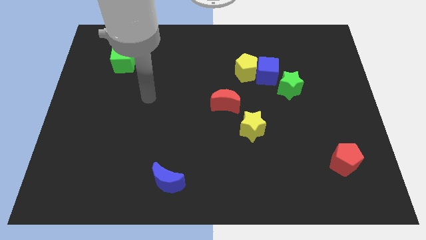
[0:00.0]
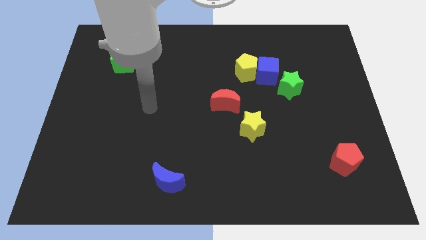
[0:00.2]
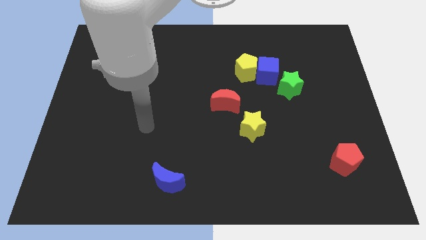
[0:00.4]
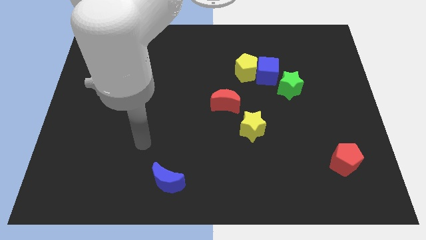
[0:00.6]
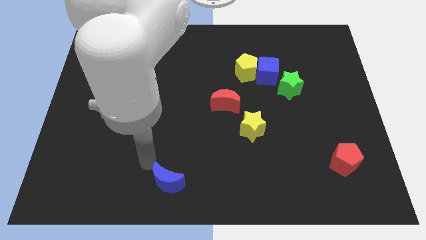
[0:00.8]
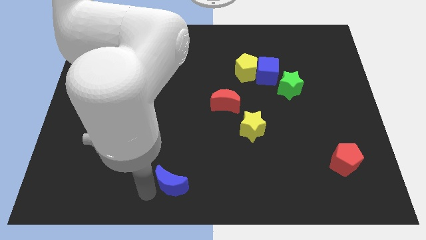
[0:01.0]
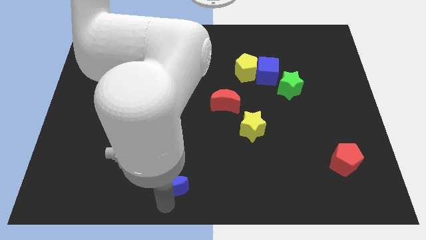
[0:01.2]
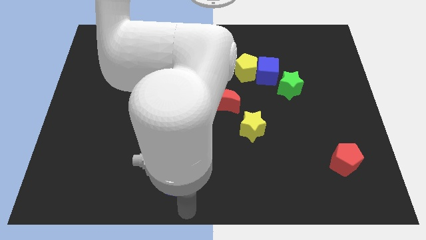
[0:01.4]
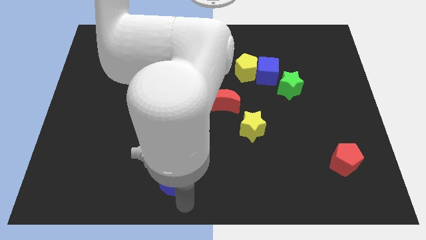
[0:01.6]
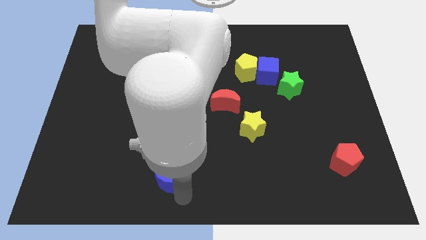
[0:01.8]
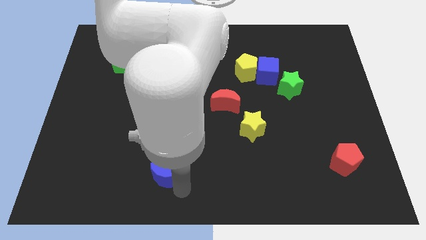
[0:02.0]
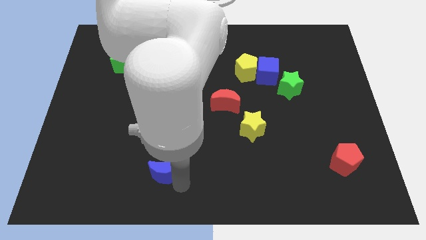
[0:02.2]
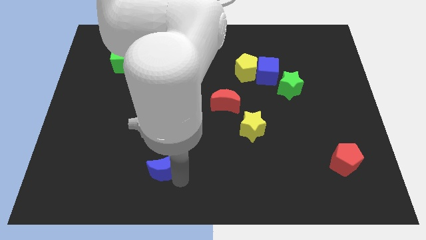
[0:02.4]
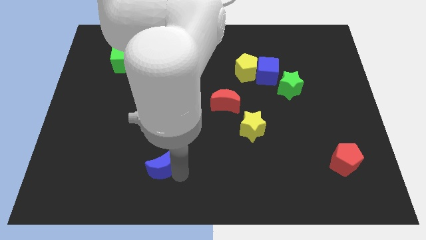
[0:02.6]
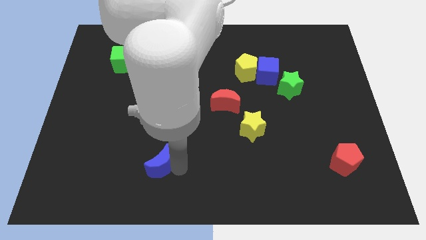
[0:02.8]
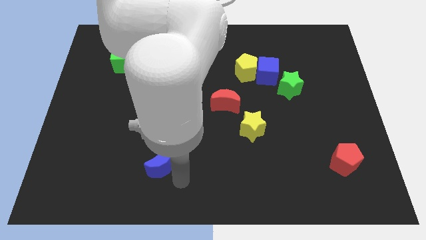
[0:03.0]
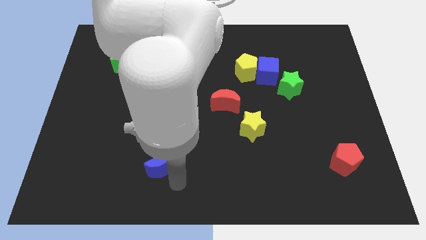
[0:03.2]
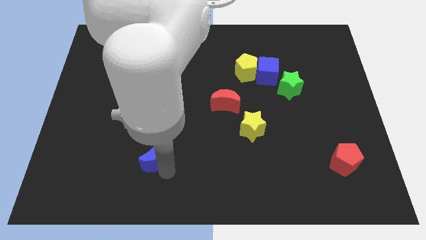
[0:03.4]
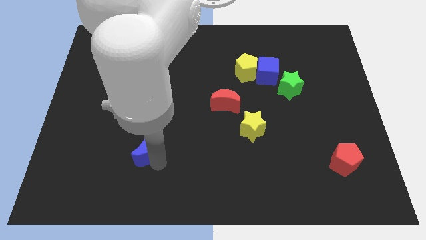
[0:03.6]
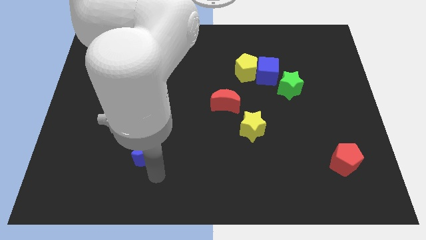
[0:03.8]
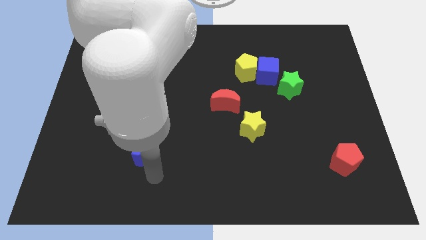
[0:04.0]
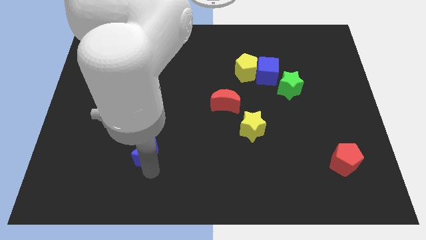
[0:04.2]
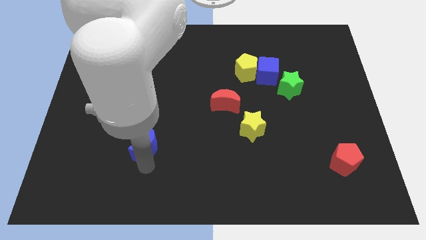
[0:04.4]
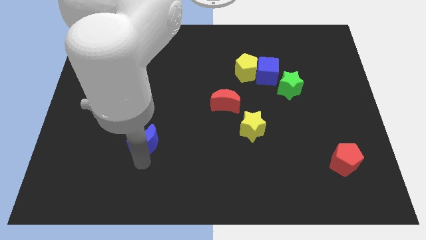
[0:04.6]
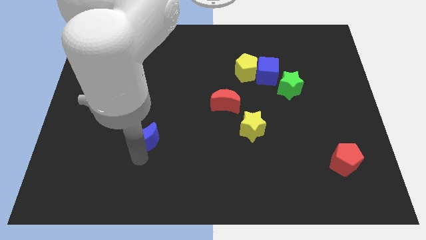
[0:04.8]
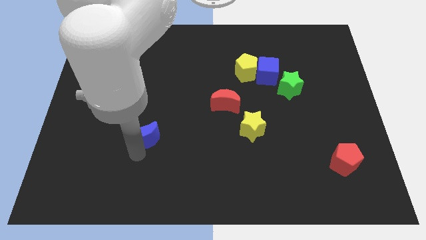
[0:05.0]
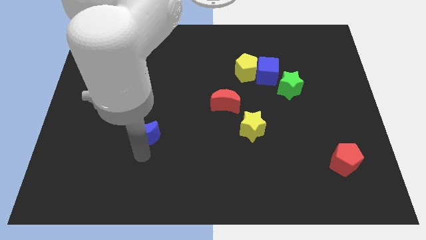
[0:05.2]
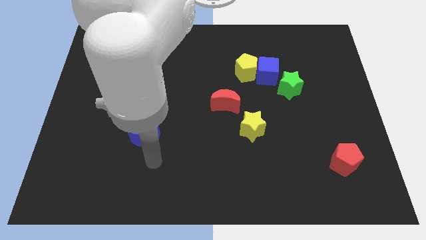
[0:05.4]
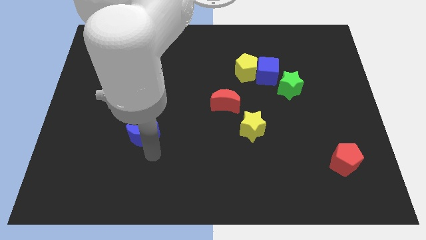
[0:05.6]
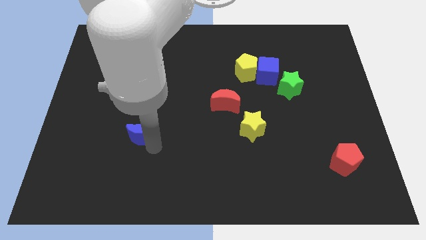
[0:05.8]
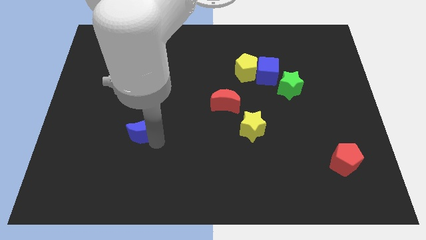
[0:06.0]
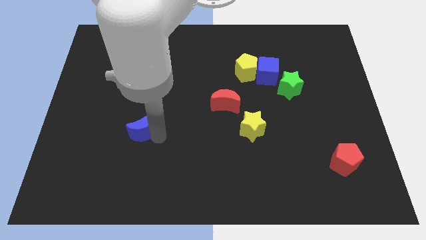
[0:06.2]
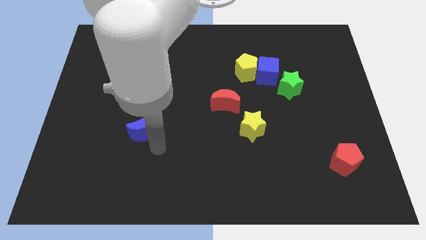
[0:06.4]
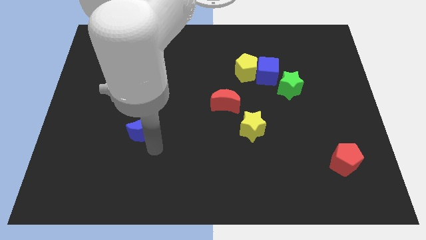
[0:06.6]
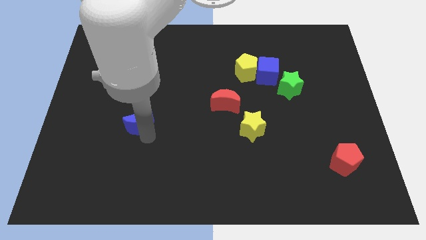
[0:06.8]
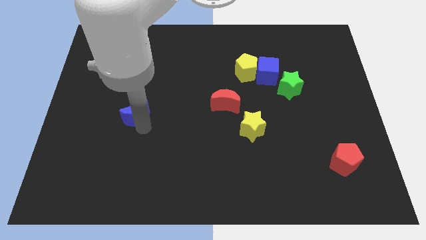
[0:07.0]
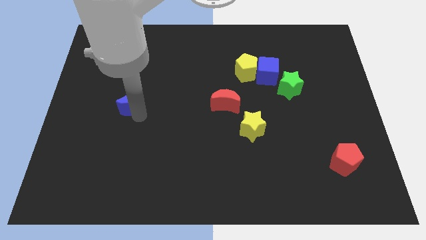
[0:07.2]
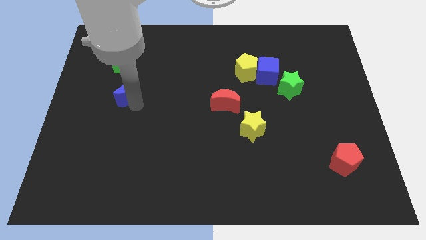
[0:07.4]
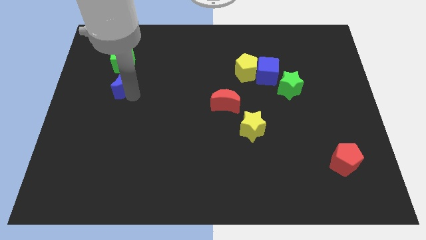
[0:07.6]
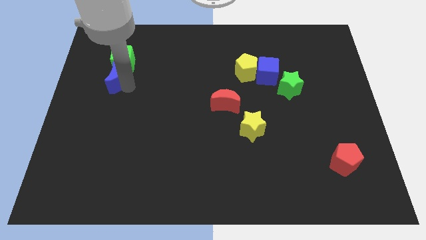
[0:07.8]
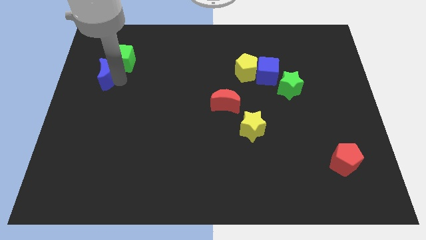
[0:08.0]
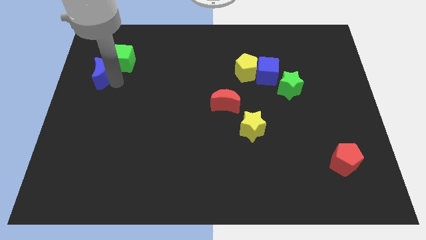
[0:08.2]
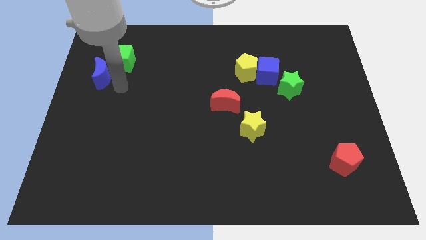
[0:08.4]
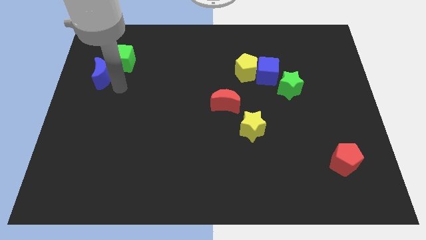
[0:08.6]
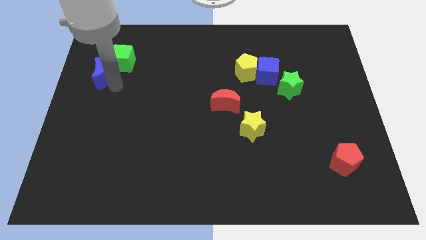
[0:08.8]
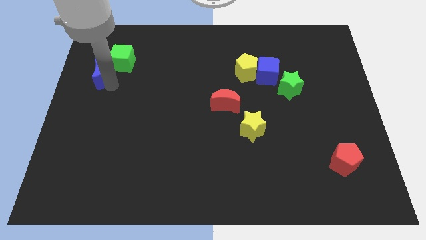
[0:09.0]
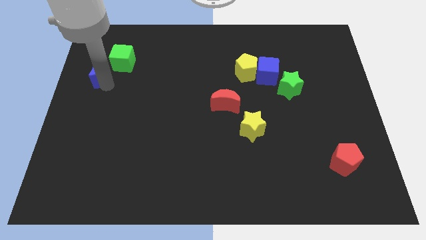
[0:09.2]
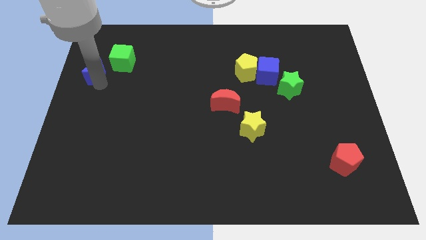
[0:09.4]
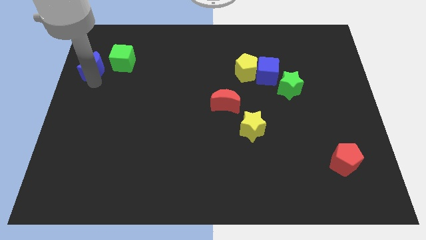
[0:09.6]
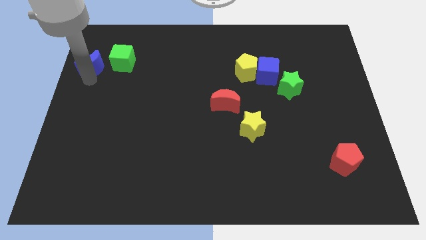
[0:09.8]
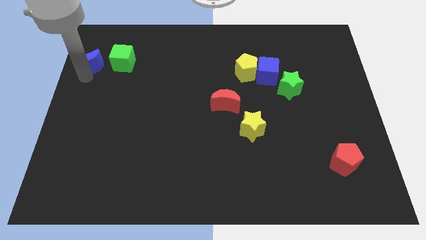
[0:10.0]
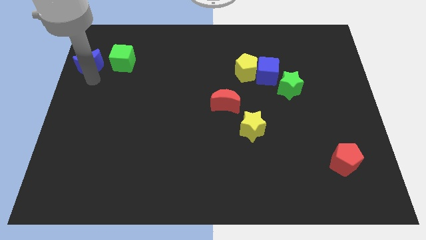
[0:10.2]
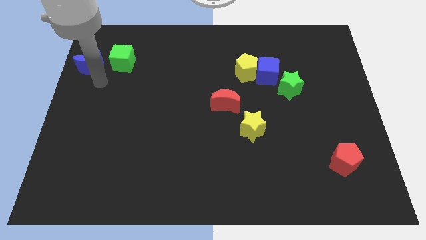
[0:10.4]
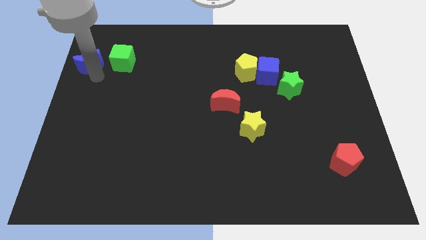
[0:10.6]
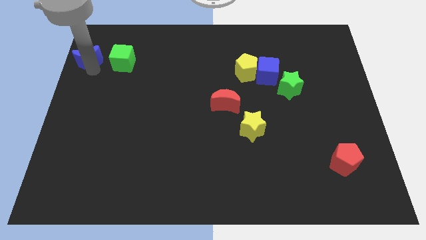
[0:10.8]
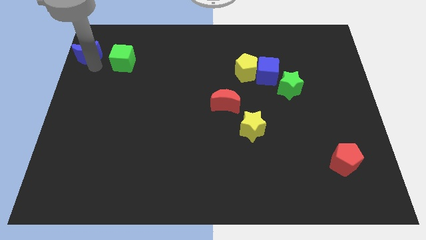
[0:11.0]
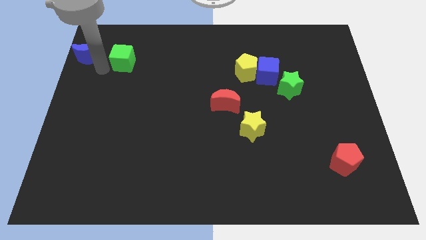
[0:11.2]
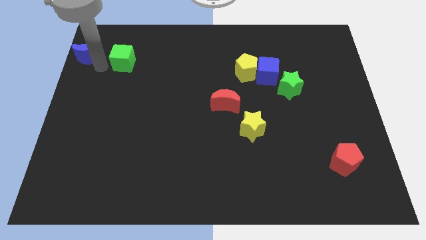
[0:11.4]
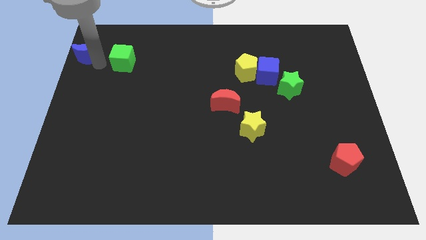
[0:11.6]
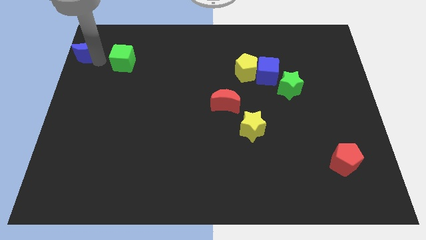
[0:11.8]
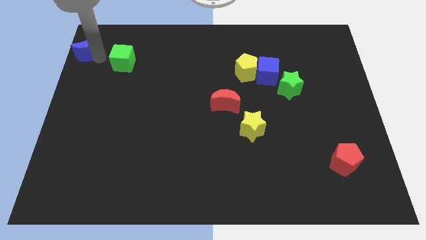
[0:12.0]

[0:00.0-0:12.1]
put the blue moon to the top left

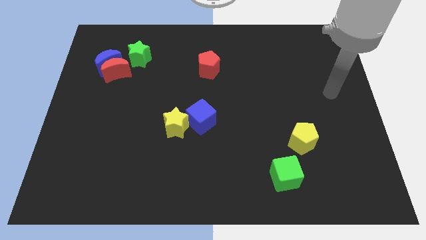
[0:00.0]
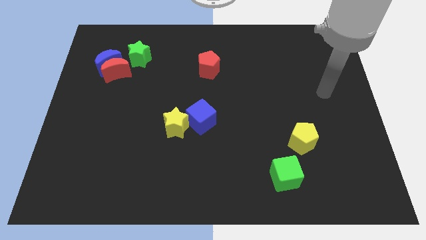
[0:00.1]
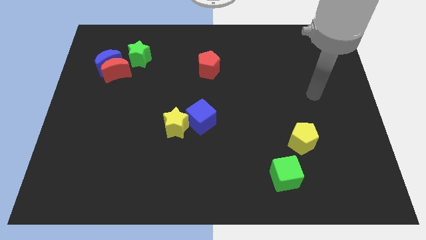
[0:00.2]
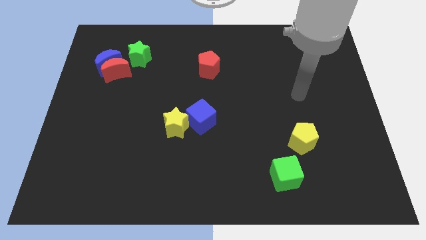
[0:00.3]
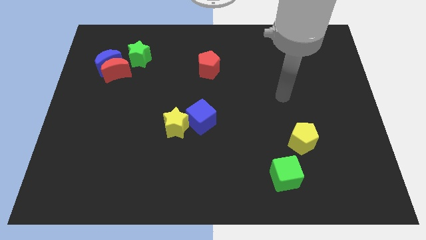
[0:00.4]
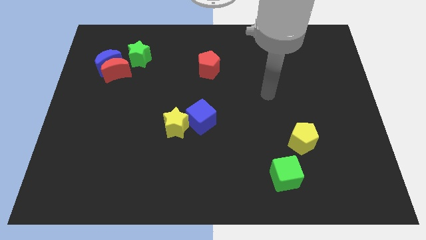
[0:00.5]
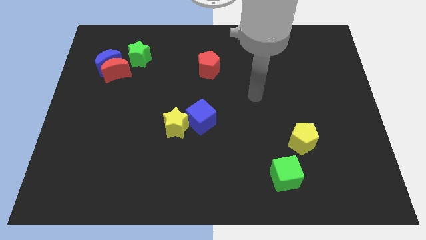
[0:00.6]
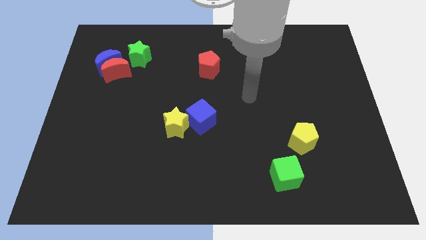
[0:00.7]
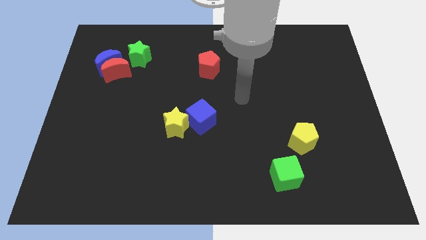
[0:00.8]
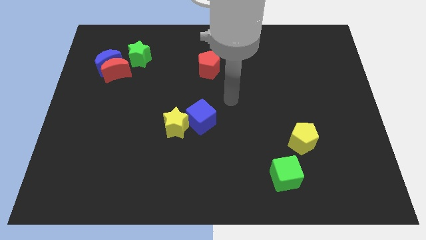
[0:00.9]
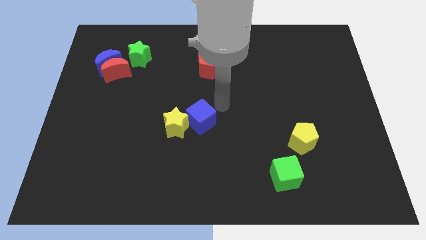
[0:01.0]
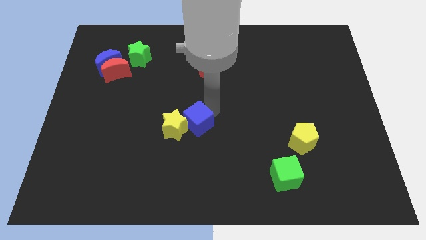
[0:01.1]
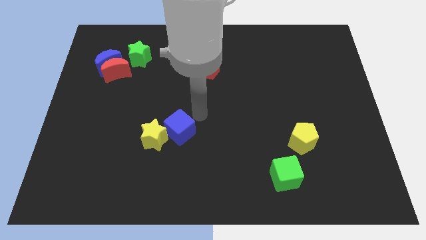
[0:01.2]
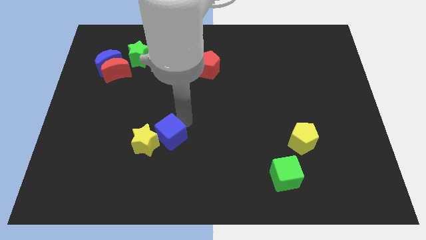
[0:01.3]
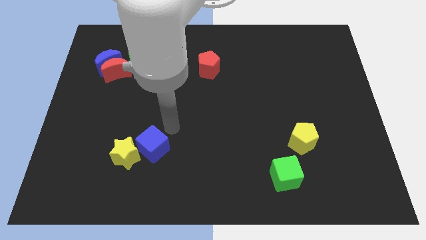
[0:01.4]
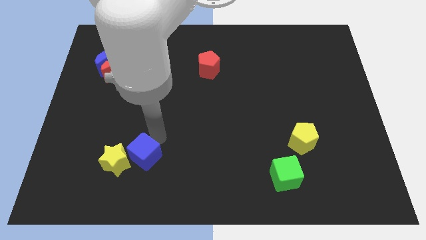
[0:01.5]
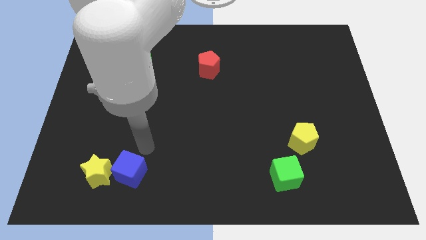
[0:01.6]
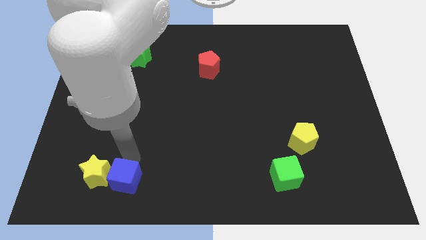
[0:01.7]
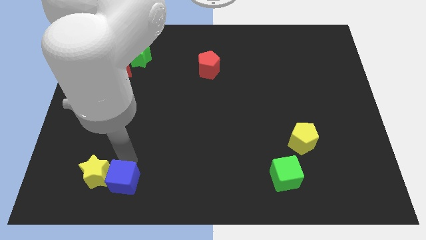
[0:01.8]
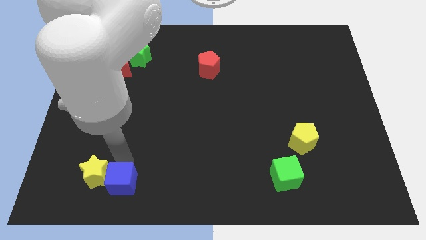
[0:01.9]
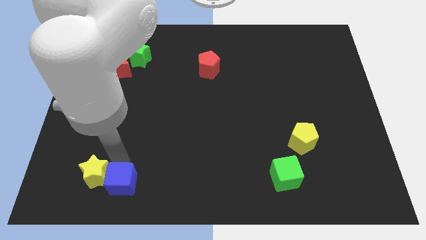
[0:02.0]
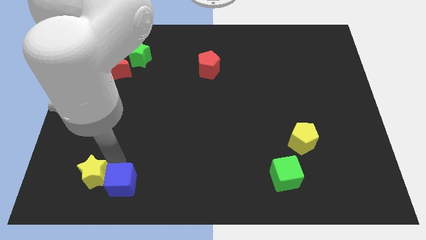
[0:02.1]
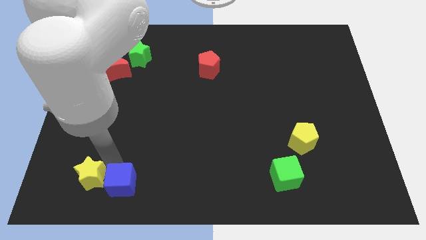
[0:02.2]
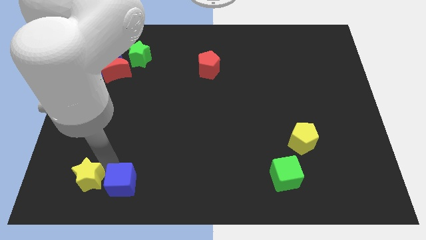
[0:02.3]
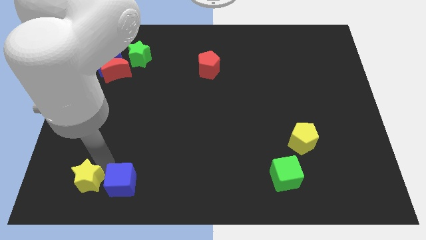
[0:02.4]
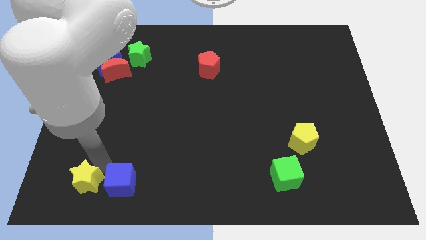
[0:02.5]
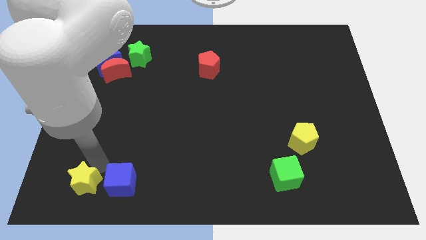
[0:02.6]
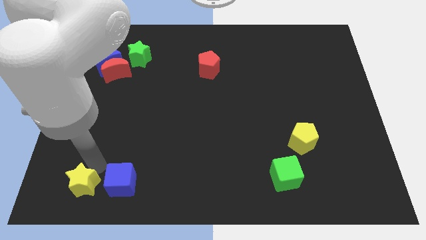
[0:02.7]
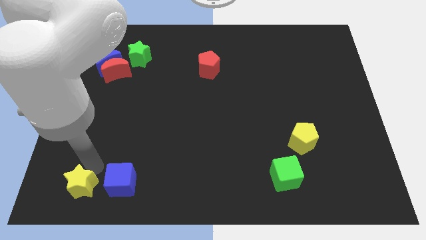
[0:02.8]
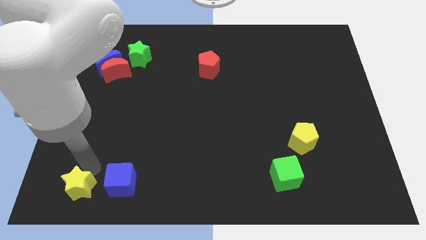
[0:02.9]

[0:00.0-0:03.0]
slide the yellow star to the bottom left corner
